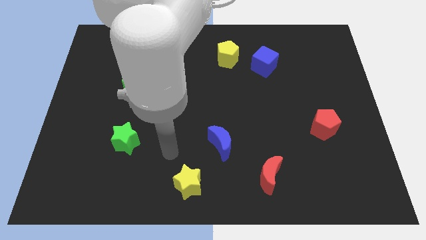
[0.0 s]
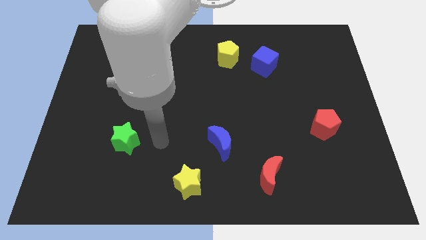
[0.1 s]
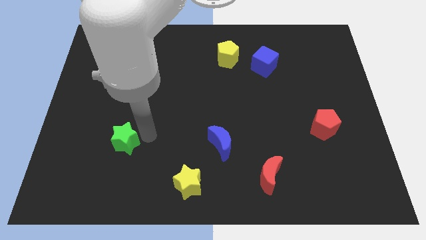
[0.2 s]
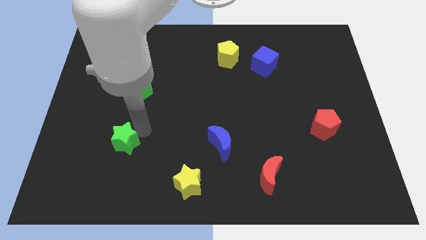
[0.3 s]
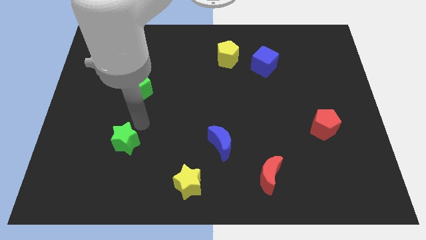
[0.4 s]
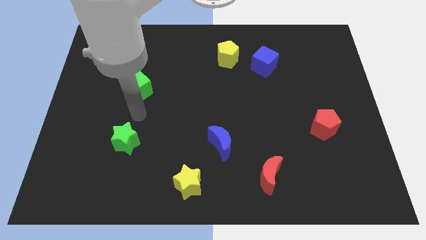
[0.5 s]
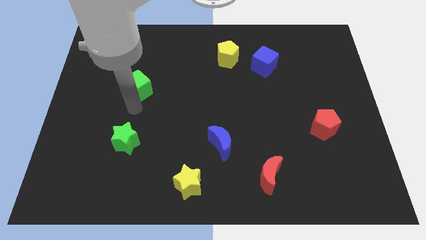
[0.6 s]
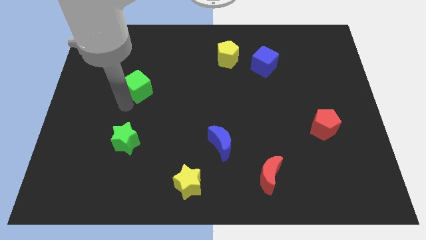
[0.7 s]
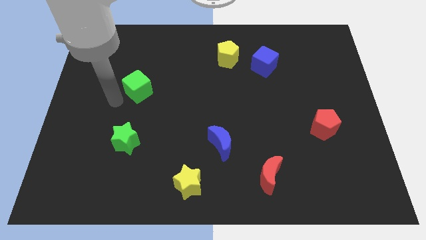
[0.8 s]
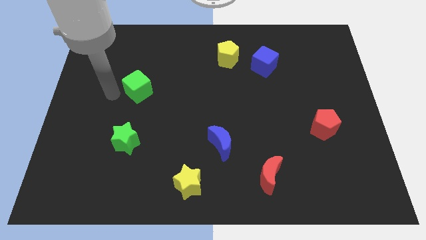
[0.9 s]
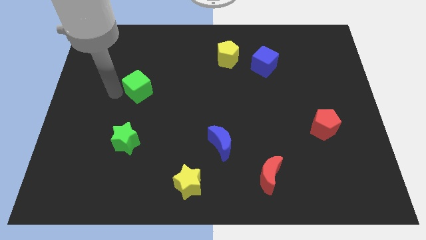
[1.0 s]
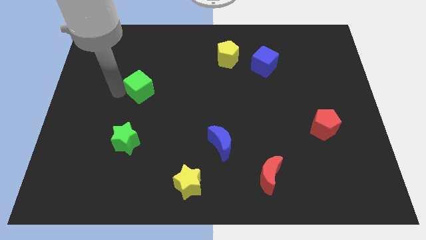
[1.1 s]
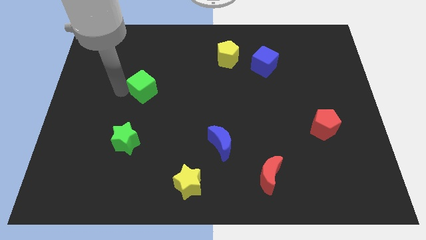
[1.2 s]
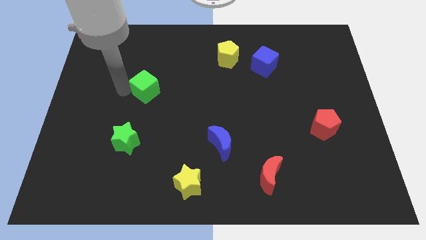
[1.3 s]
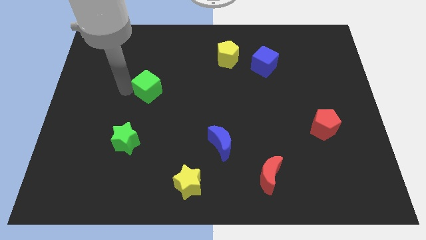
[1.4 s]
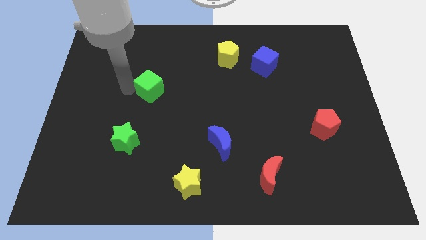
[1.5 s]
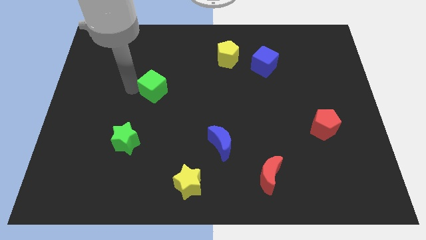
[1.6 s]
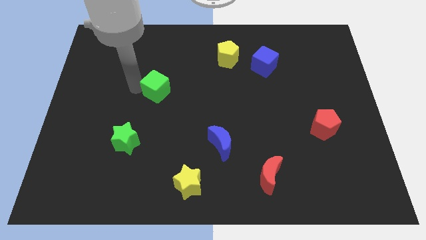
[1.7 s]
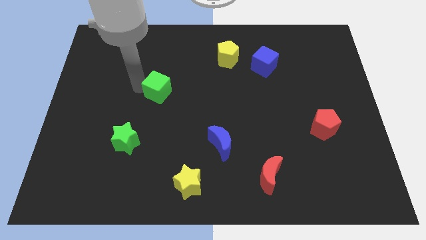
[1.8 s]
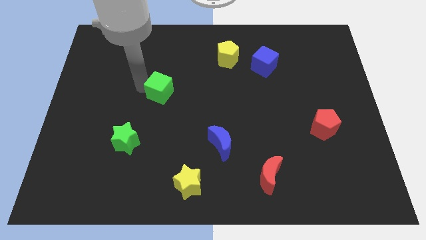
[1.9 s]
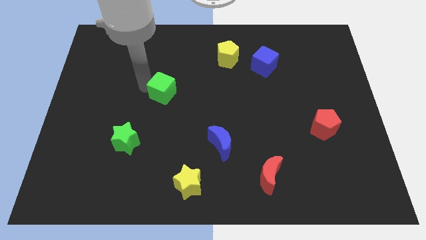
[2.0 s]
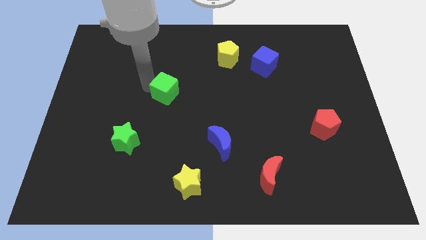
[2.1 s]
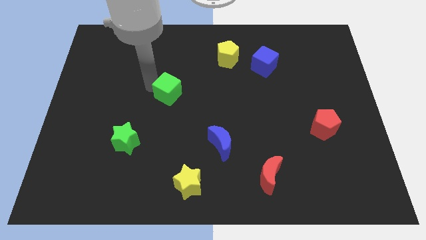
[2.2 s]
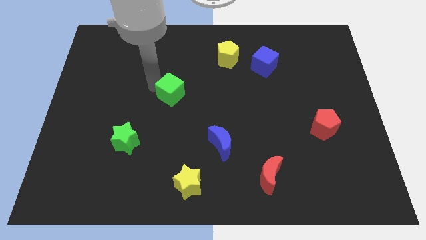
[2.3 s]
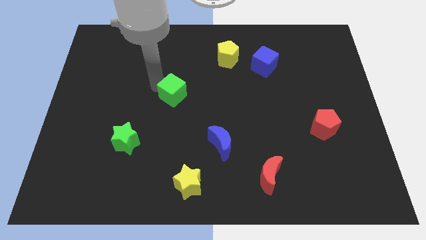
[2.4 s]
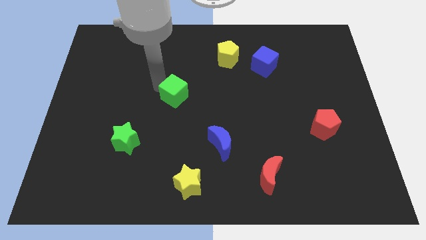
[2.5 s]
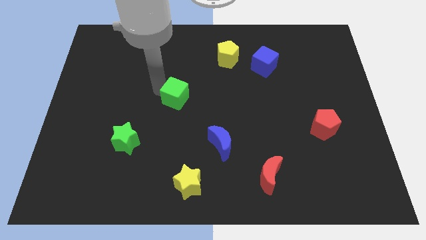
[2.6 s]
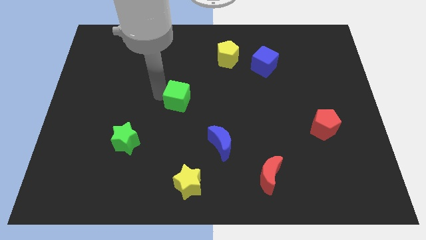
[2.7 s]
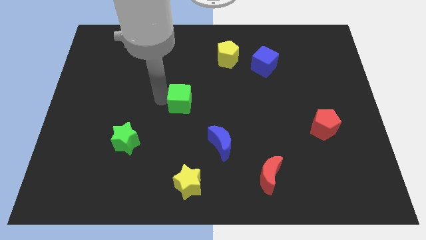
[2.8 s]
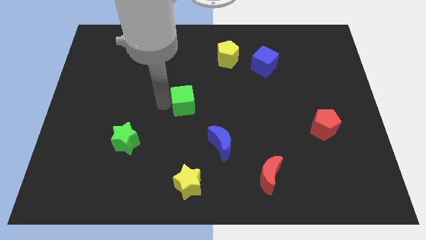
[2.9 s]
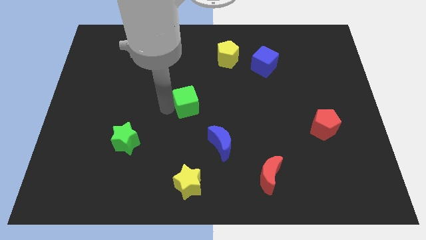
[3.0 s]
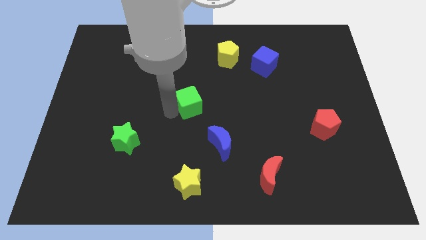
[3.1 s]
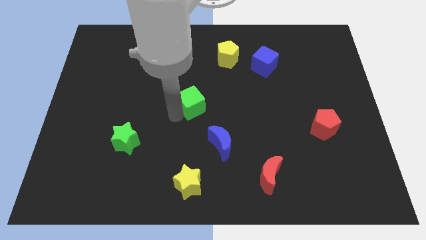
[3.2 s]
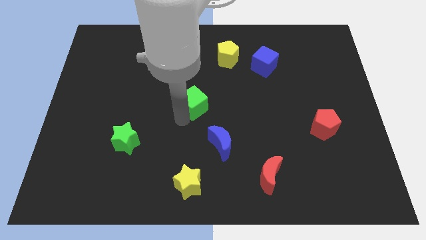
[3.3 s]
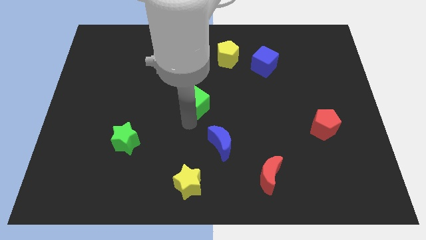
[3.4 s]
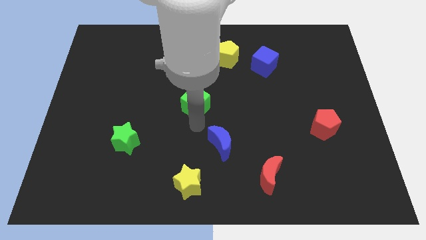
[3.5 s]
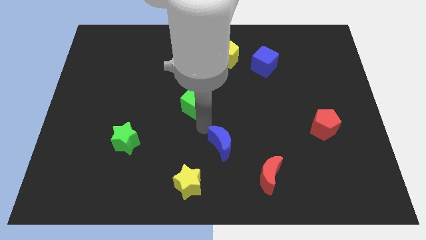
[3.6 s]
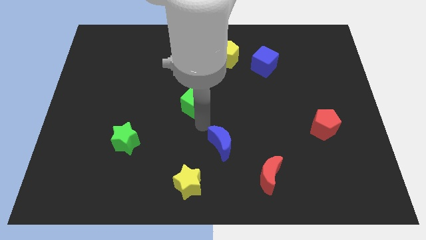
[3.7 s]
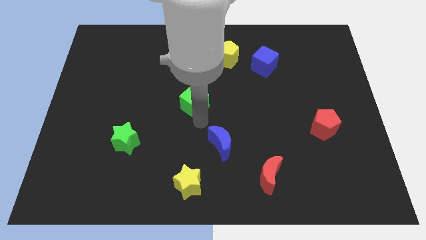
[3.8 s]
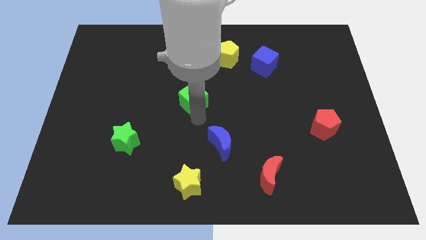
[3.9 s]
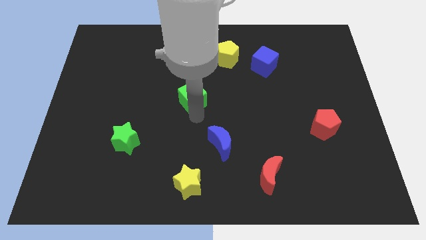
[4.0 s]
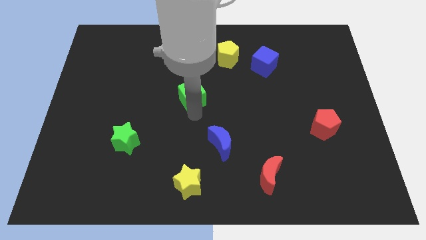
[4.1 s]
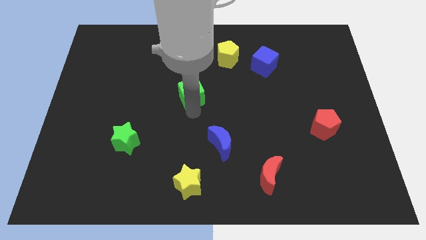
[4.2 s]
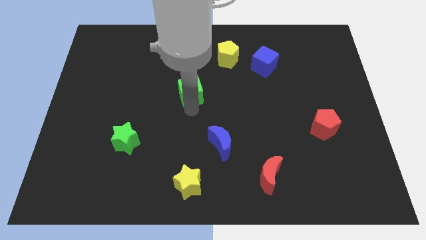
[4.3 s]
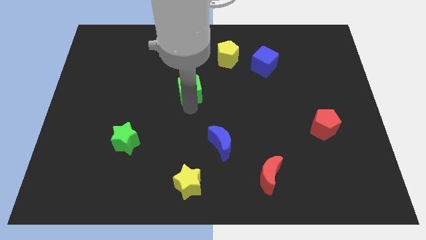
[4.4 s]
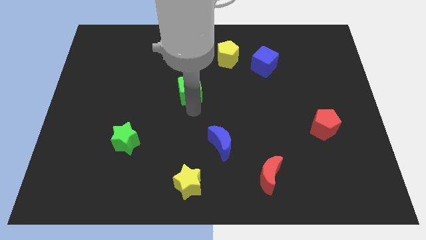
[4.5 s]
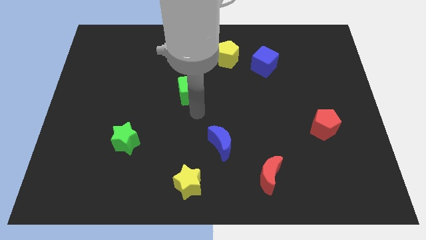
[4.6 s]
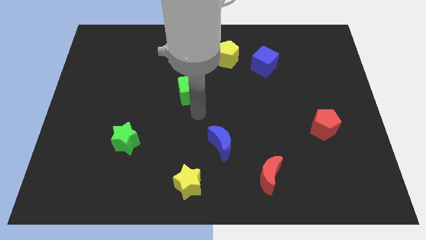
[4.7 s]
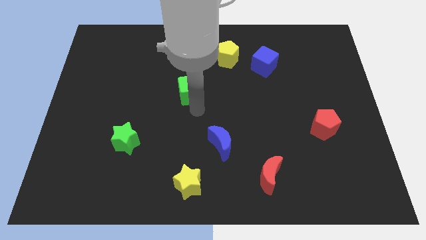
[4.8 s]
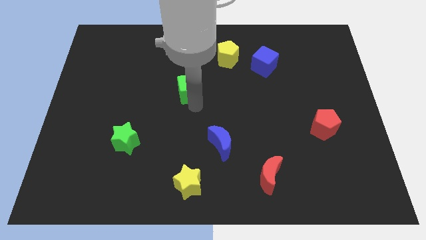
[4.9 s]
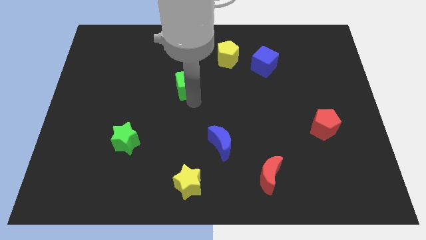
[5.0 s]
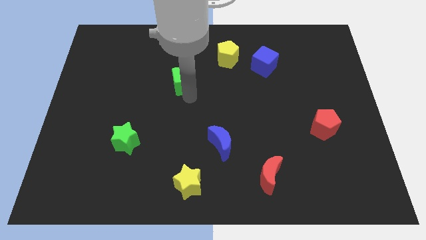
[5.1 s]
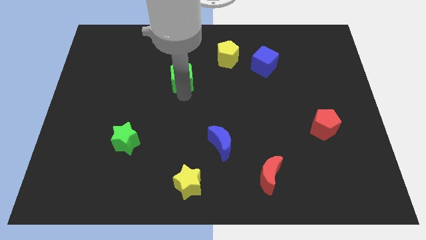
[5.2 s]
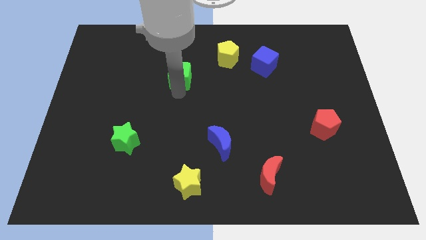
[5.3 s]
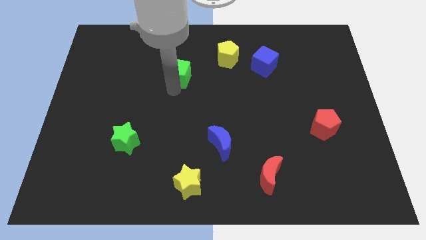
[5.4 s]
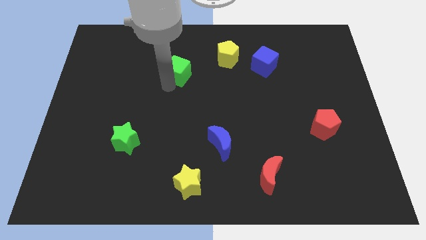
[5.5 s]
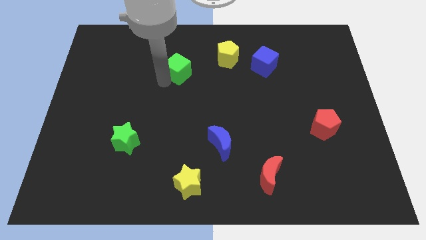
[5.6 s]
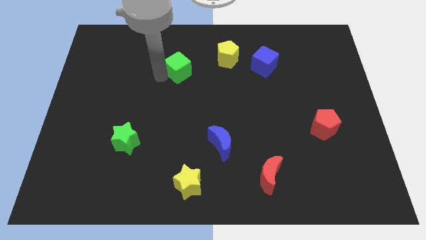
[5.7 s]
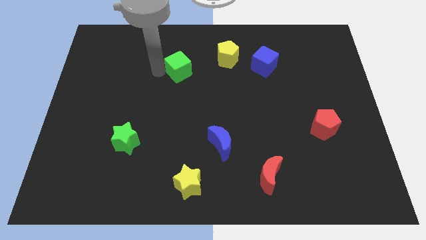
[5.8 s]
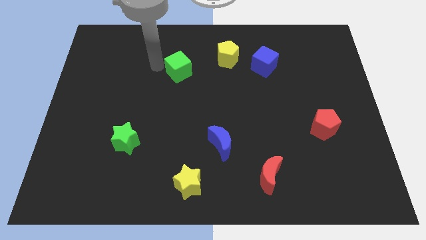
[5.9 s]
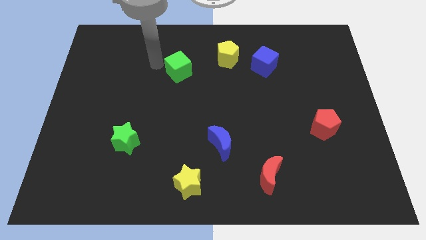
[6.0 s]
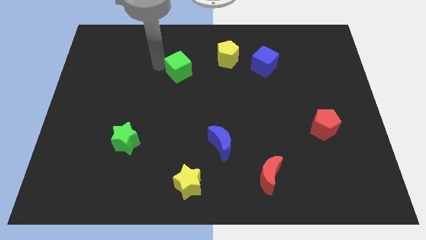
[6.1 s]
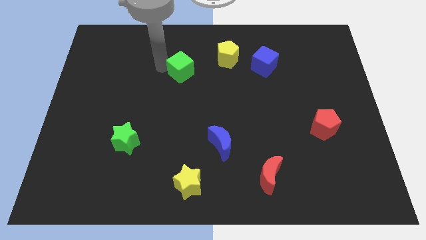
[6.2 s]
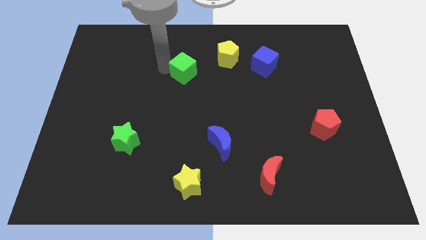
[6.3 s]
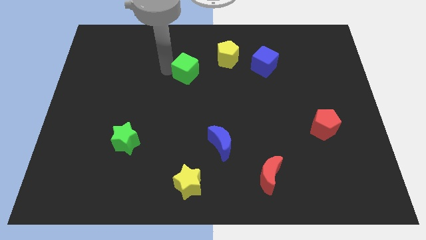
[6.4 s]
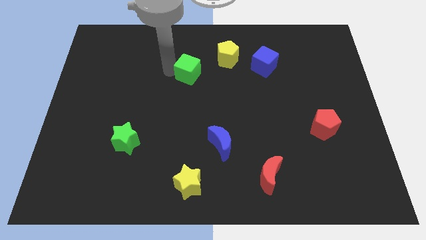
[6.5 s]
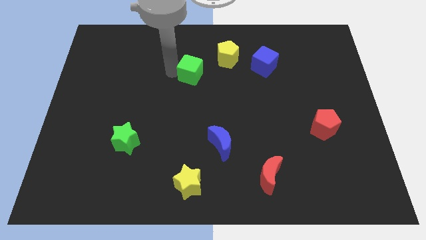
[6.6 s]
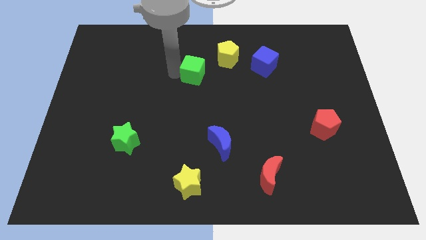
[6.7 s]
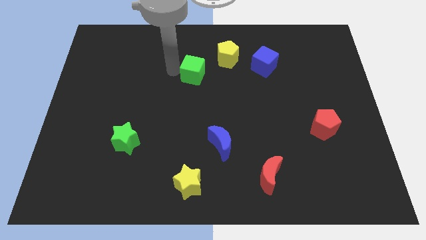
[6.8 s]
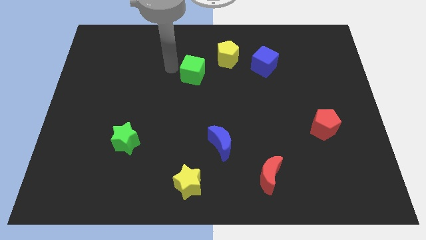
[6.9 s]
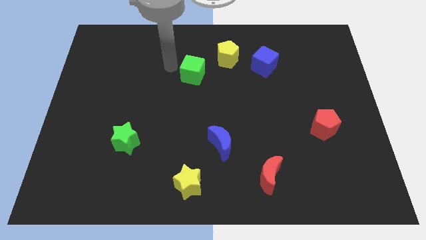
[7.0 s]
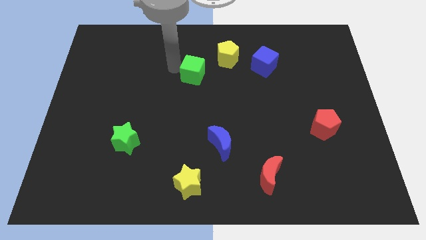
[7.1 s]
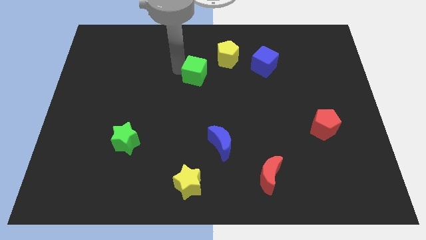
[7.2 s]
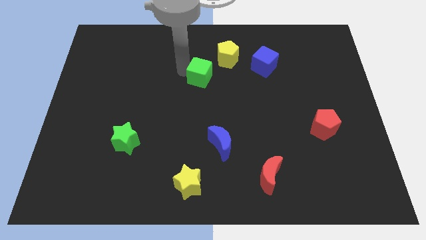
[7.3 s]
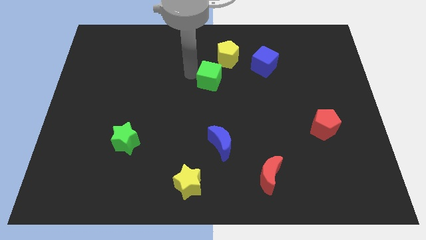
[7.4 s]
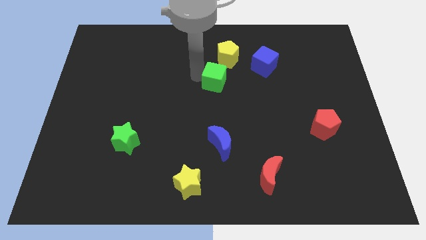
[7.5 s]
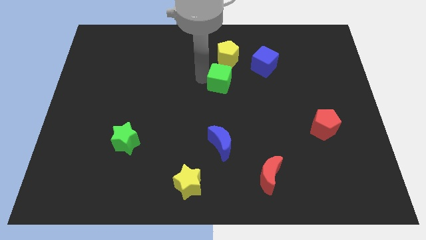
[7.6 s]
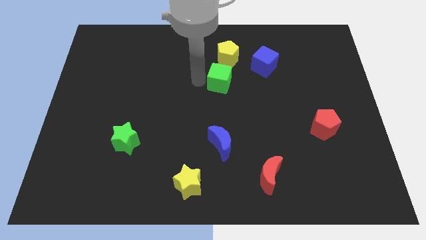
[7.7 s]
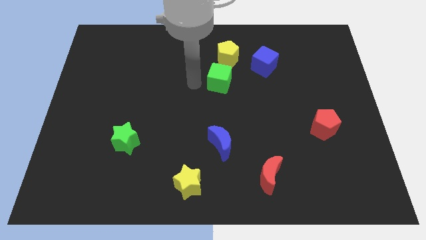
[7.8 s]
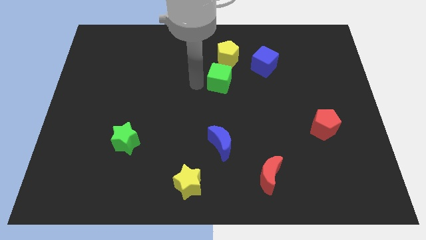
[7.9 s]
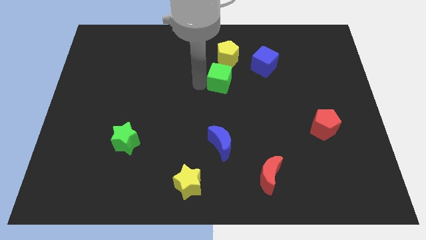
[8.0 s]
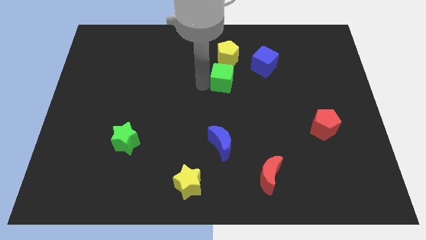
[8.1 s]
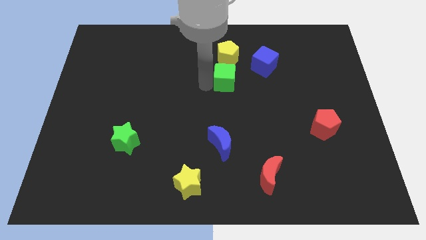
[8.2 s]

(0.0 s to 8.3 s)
move the green cube to the bottom left of the blue cube
